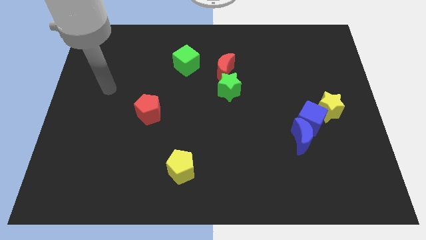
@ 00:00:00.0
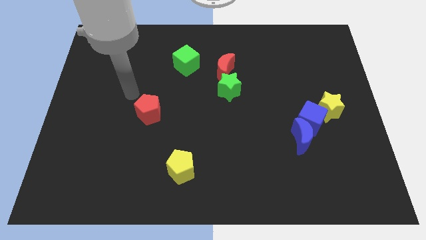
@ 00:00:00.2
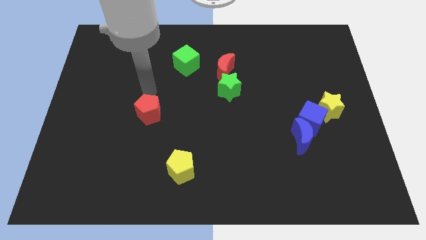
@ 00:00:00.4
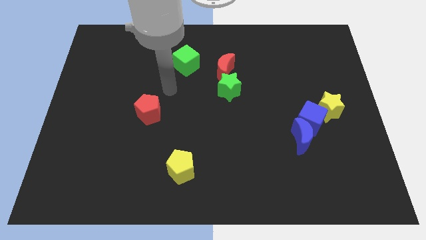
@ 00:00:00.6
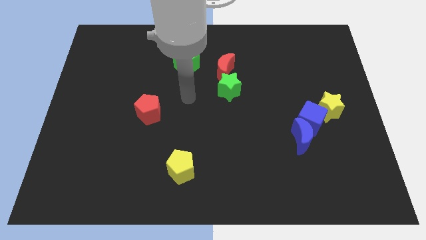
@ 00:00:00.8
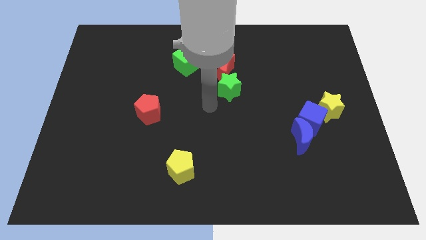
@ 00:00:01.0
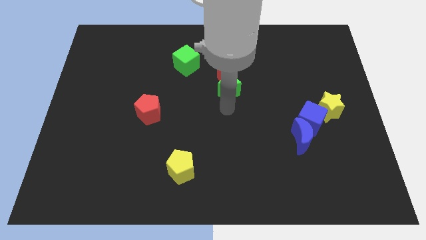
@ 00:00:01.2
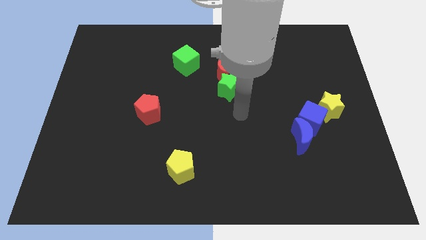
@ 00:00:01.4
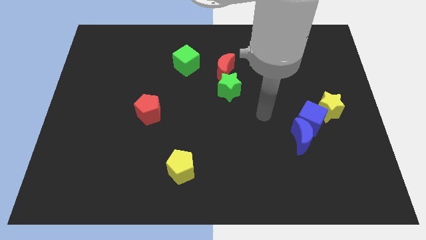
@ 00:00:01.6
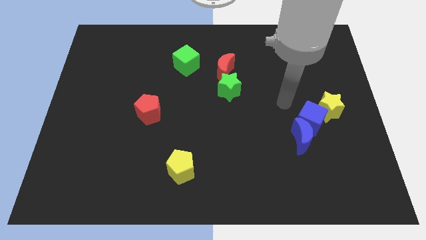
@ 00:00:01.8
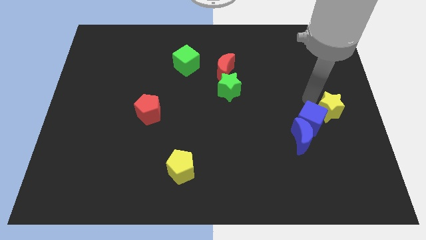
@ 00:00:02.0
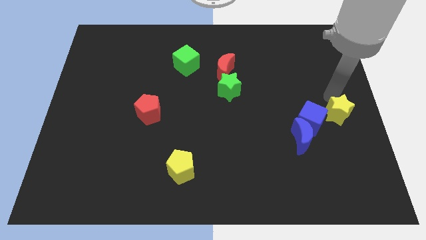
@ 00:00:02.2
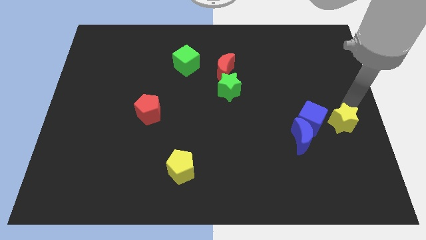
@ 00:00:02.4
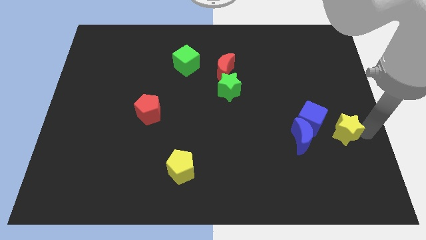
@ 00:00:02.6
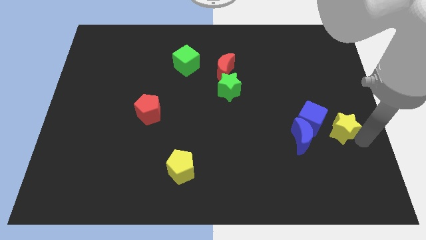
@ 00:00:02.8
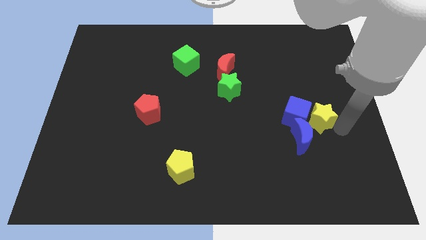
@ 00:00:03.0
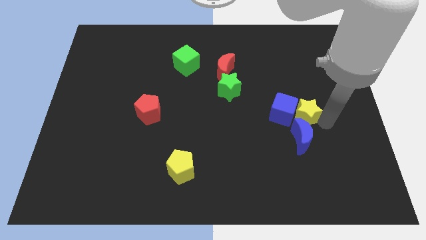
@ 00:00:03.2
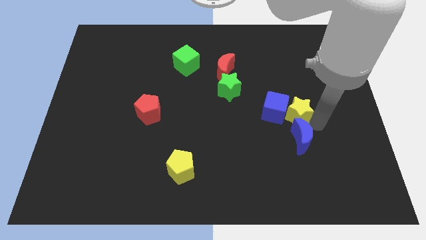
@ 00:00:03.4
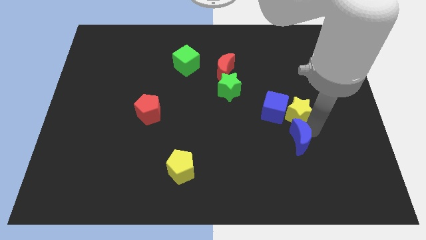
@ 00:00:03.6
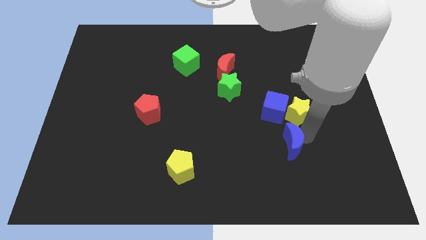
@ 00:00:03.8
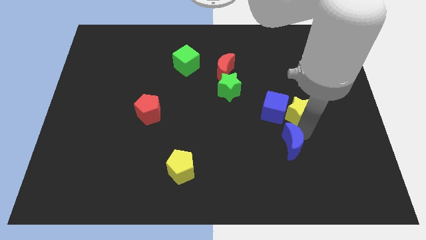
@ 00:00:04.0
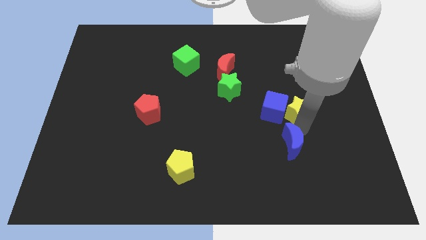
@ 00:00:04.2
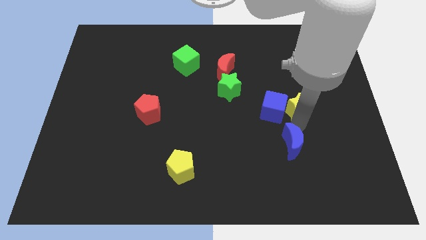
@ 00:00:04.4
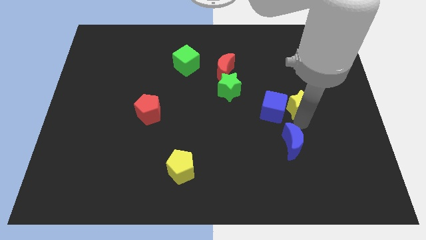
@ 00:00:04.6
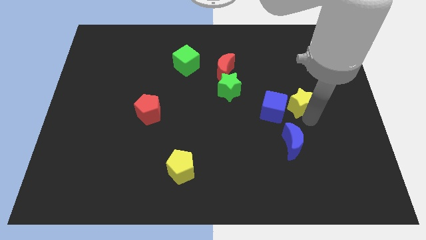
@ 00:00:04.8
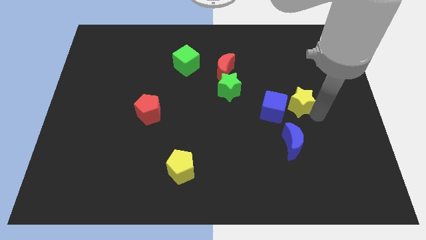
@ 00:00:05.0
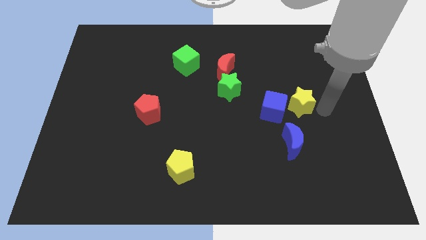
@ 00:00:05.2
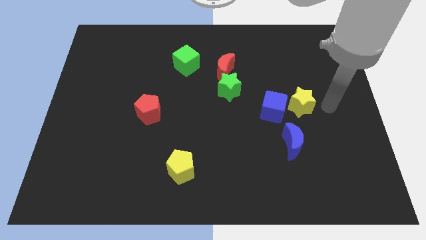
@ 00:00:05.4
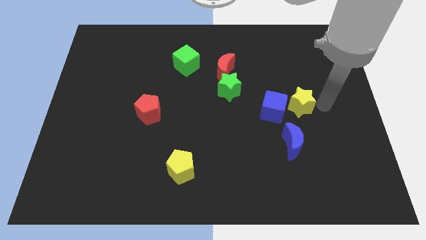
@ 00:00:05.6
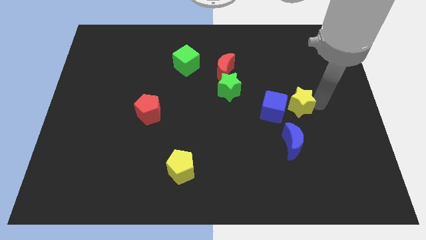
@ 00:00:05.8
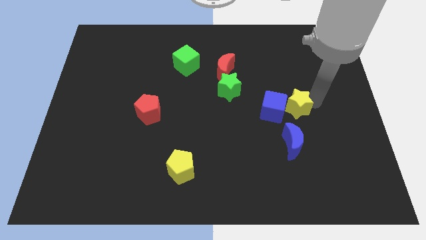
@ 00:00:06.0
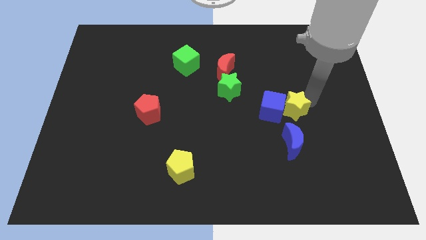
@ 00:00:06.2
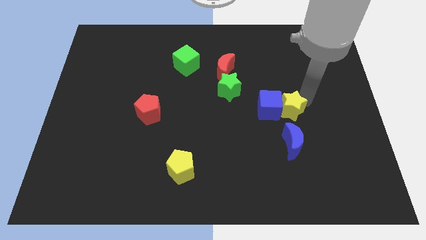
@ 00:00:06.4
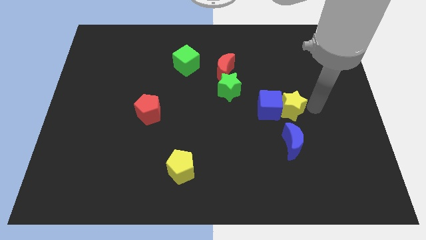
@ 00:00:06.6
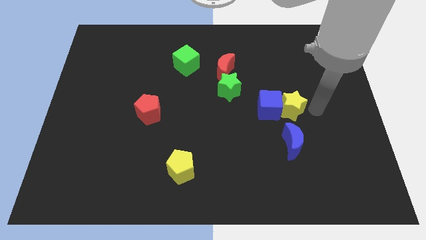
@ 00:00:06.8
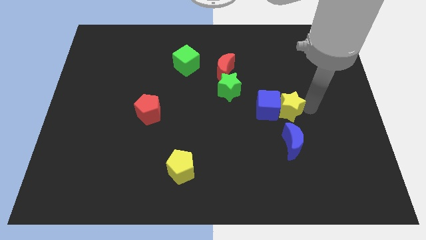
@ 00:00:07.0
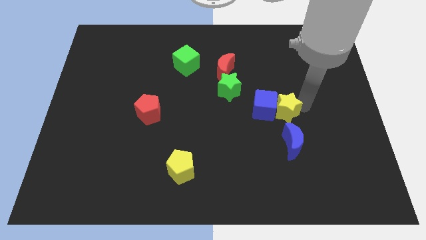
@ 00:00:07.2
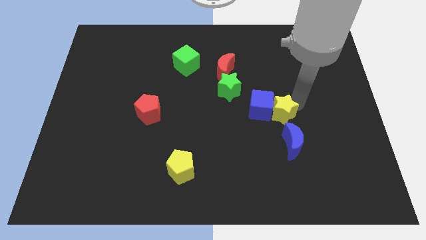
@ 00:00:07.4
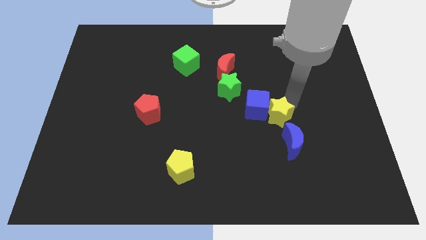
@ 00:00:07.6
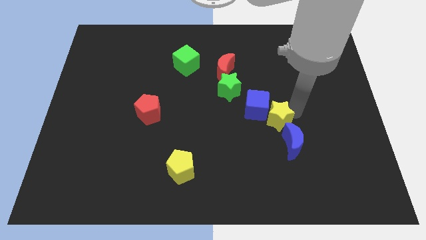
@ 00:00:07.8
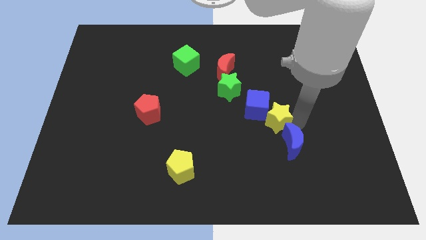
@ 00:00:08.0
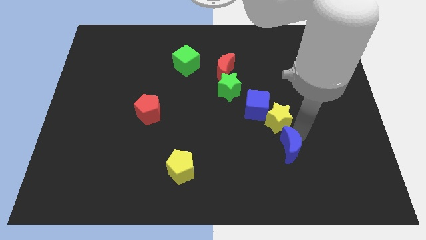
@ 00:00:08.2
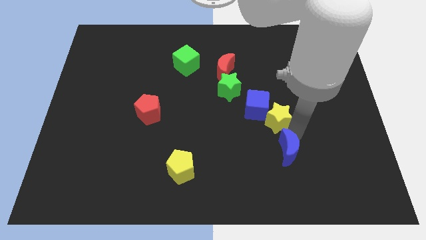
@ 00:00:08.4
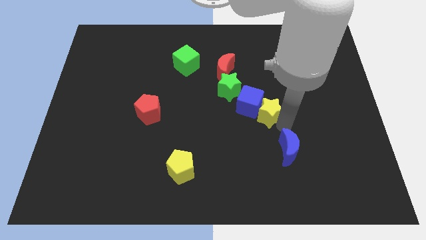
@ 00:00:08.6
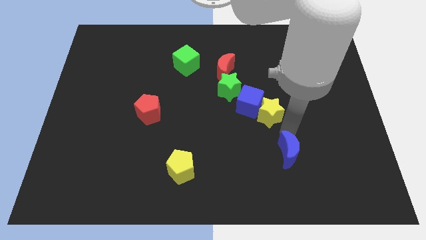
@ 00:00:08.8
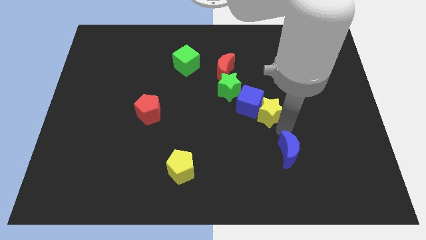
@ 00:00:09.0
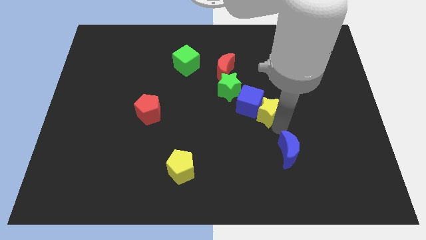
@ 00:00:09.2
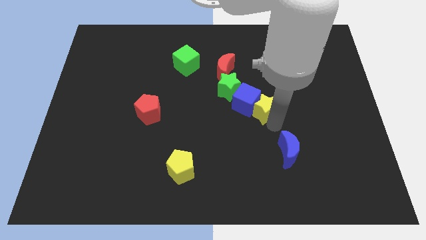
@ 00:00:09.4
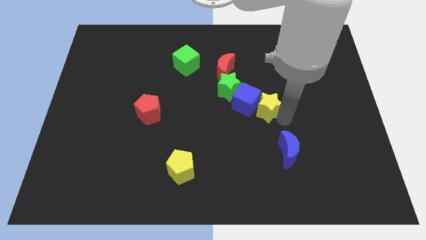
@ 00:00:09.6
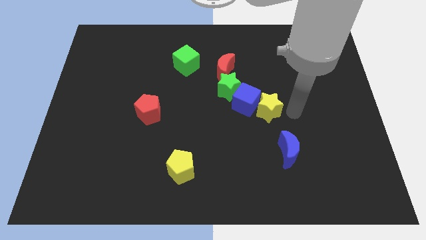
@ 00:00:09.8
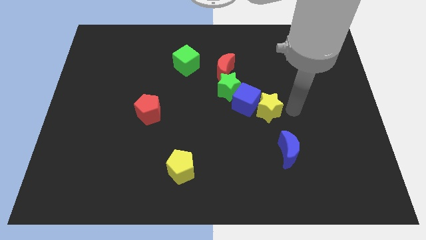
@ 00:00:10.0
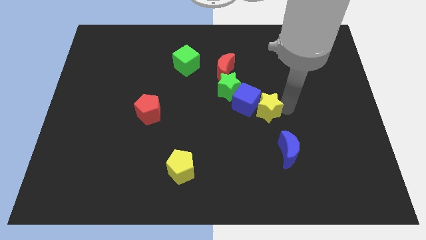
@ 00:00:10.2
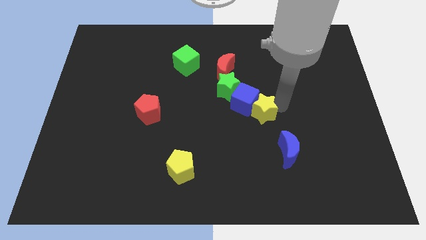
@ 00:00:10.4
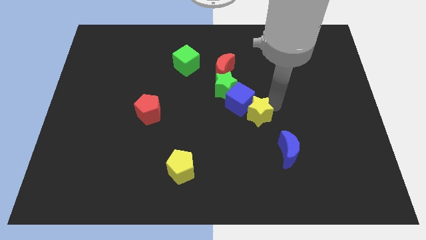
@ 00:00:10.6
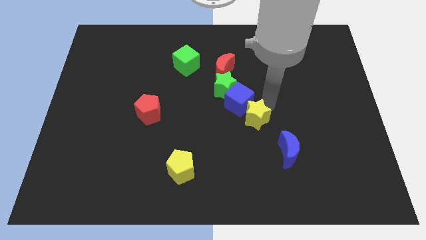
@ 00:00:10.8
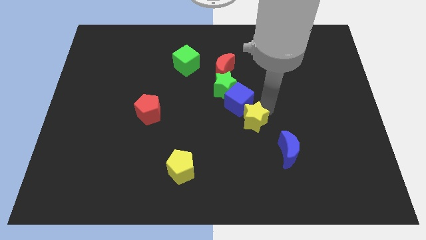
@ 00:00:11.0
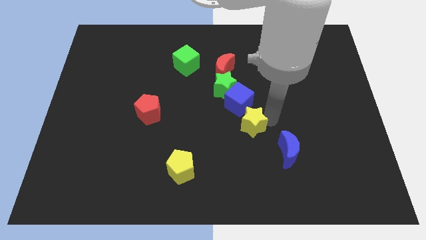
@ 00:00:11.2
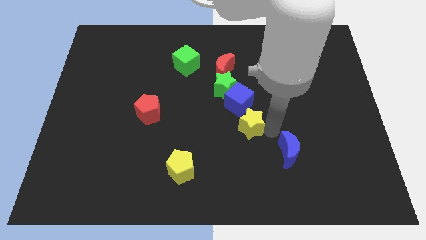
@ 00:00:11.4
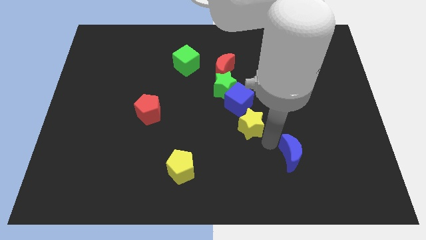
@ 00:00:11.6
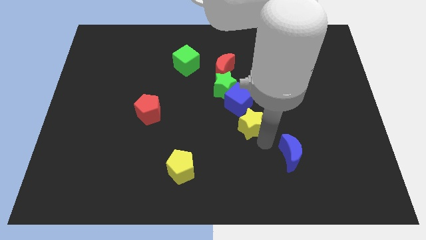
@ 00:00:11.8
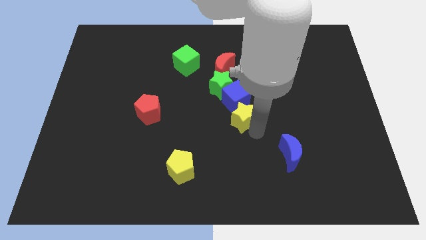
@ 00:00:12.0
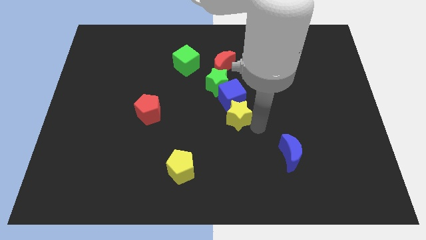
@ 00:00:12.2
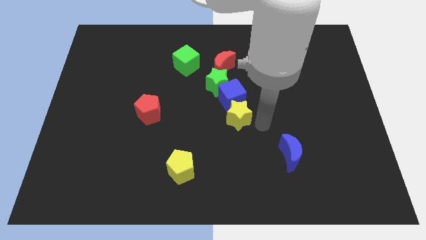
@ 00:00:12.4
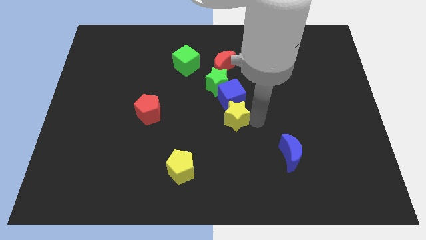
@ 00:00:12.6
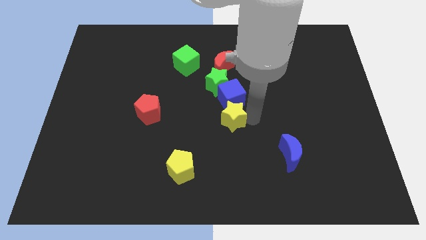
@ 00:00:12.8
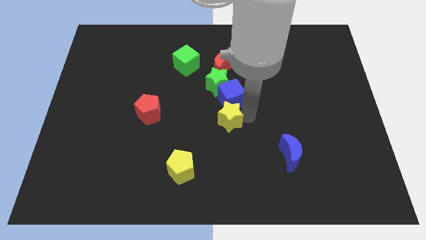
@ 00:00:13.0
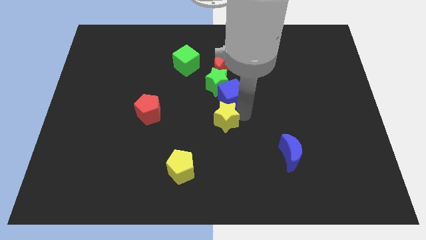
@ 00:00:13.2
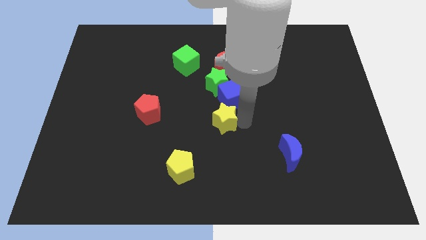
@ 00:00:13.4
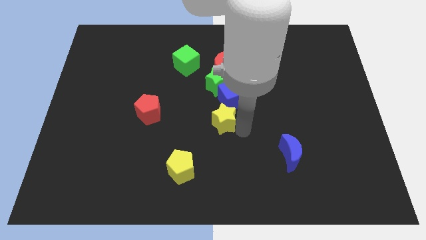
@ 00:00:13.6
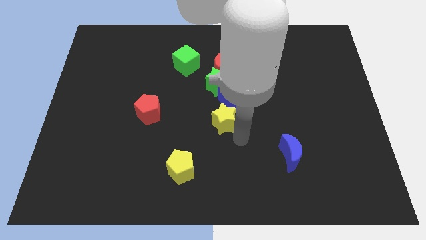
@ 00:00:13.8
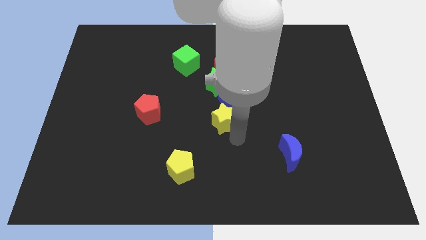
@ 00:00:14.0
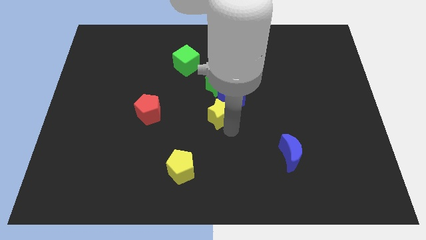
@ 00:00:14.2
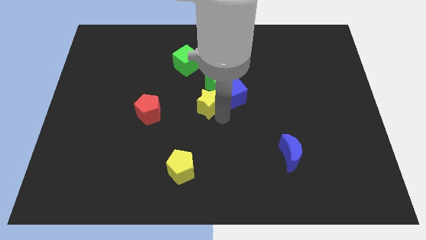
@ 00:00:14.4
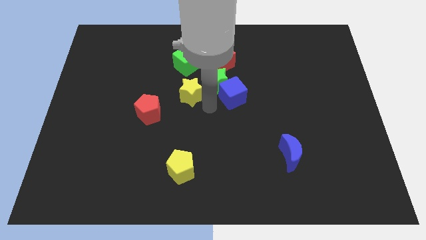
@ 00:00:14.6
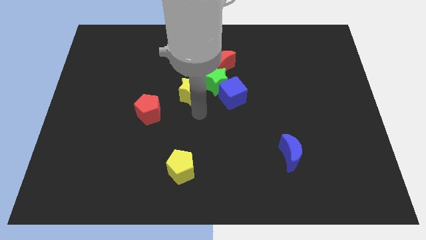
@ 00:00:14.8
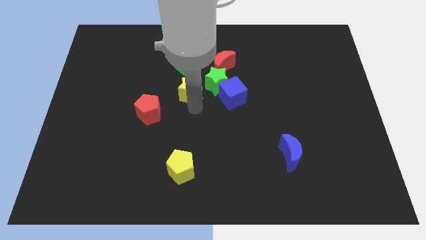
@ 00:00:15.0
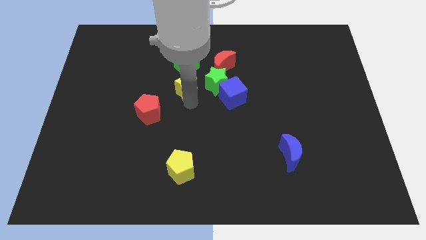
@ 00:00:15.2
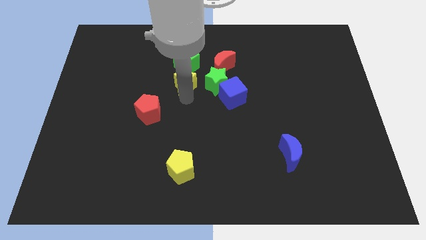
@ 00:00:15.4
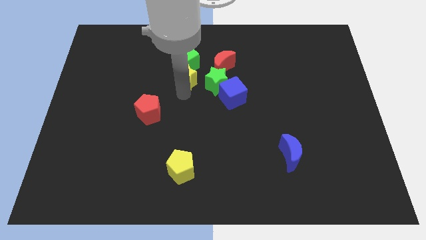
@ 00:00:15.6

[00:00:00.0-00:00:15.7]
push the yellow star to the left side of the red moon
